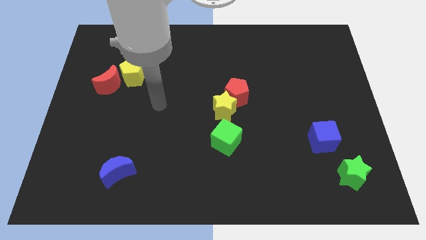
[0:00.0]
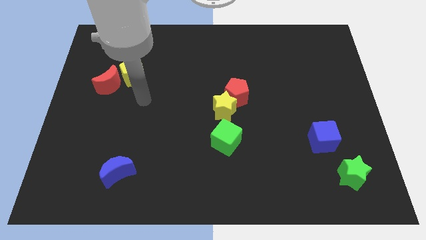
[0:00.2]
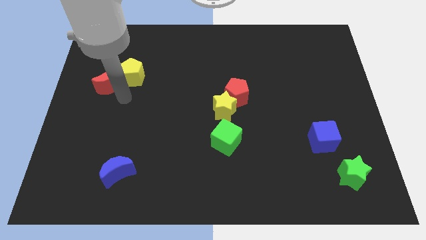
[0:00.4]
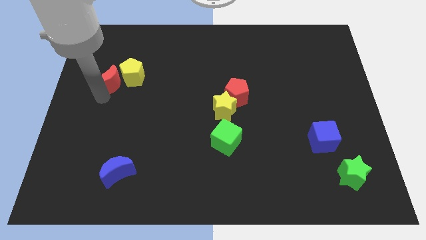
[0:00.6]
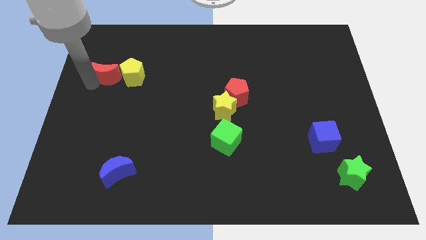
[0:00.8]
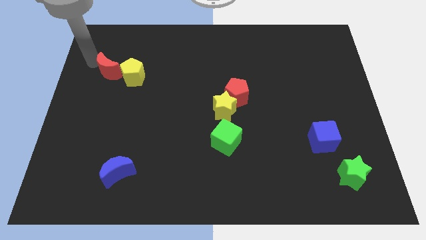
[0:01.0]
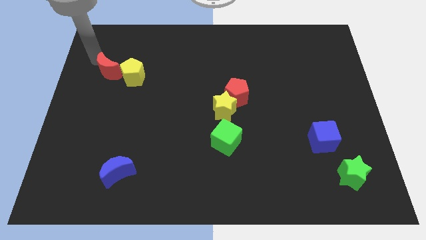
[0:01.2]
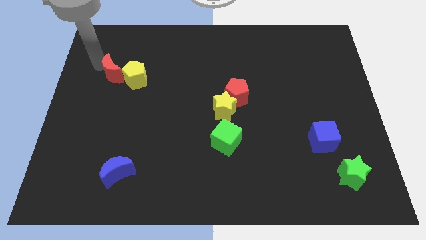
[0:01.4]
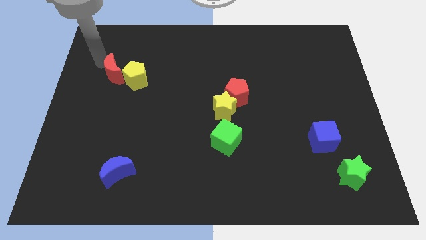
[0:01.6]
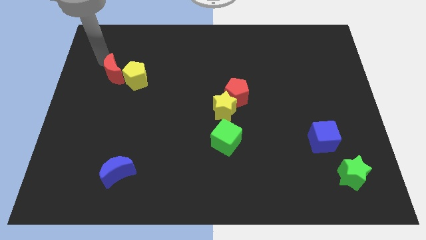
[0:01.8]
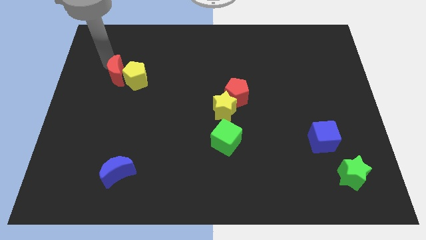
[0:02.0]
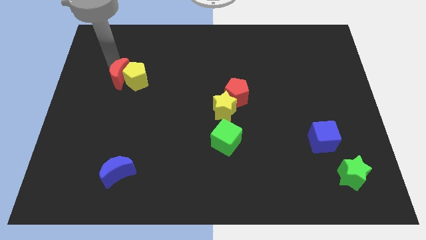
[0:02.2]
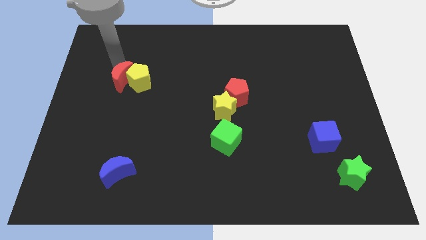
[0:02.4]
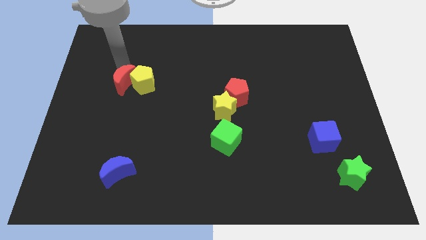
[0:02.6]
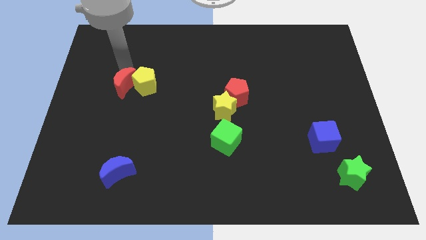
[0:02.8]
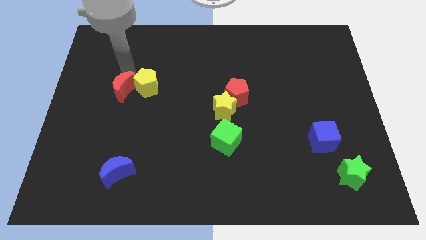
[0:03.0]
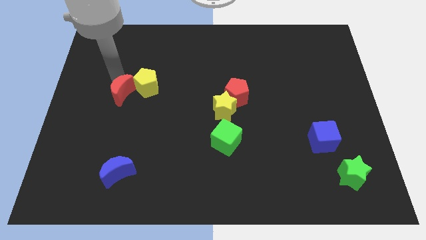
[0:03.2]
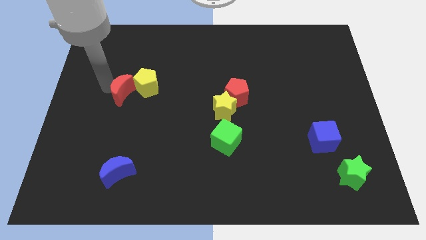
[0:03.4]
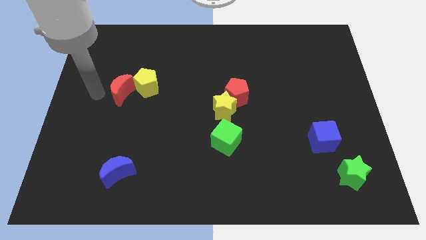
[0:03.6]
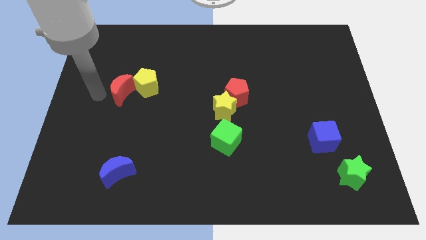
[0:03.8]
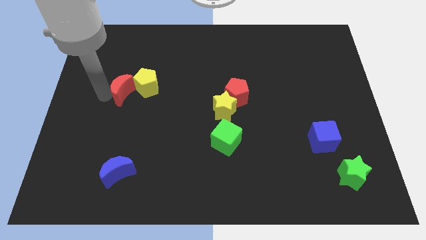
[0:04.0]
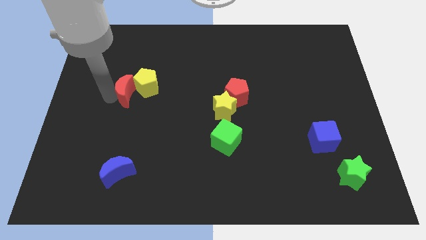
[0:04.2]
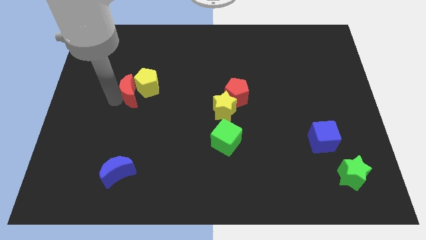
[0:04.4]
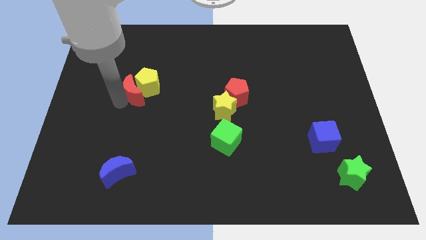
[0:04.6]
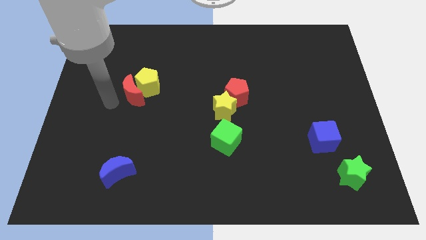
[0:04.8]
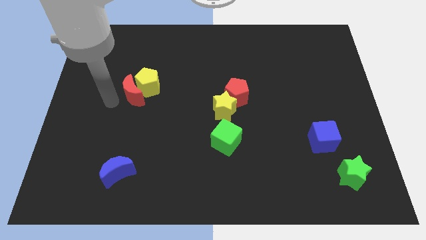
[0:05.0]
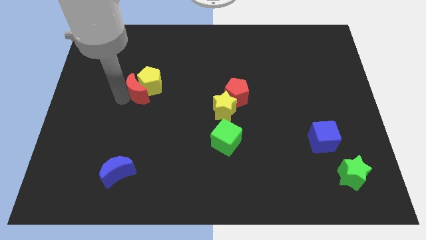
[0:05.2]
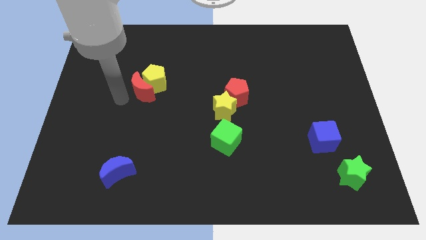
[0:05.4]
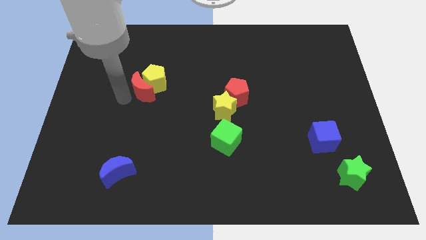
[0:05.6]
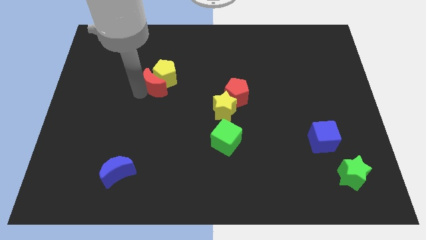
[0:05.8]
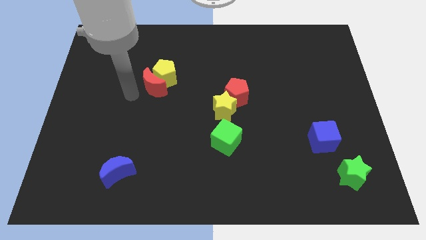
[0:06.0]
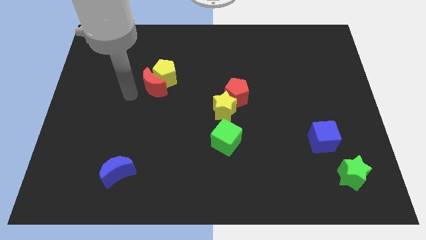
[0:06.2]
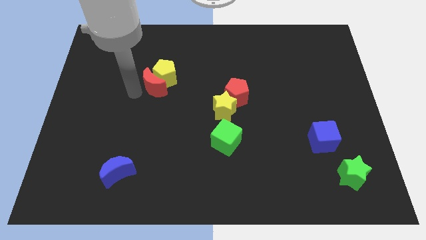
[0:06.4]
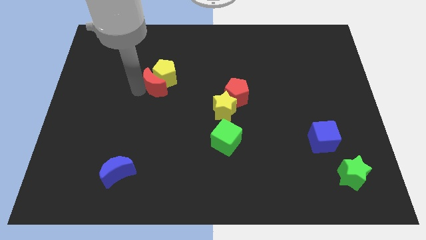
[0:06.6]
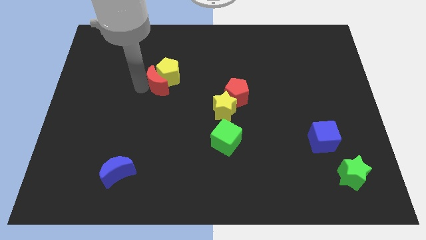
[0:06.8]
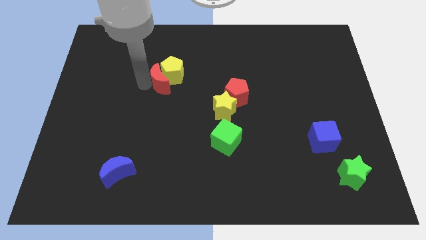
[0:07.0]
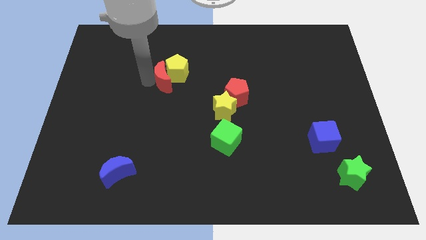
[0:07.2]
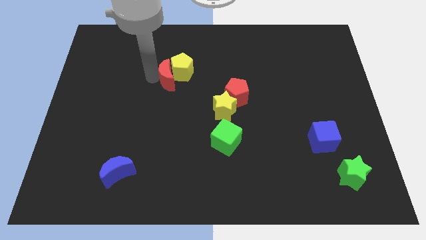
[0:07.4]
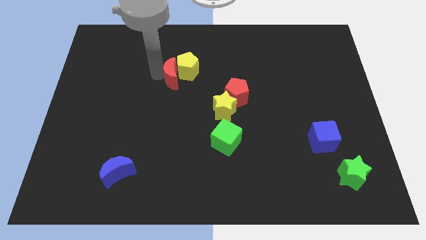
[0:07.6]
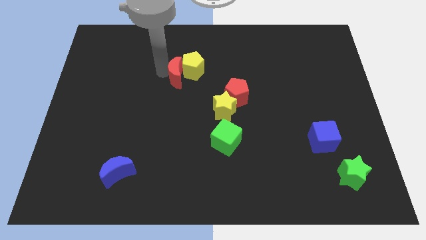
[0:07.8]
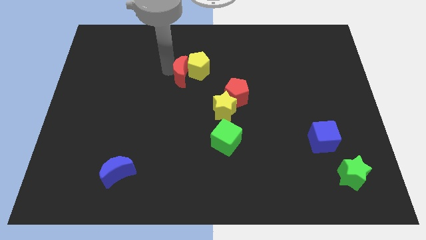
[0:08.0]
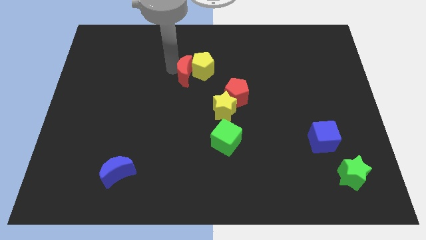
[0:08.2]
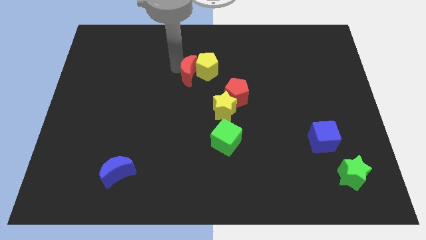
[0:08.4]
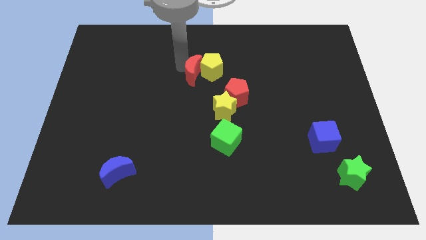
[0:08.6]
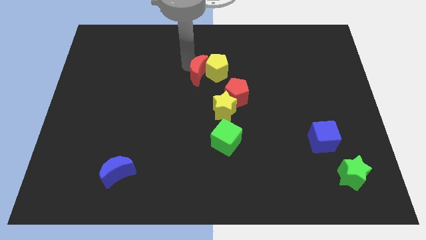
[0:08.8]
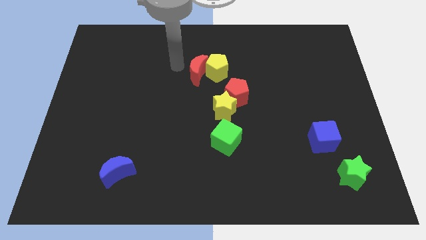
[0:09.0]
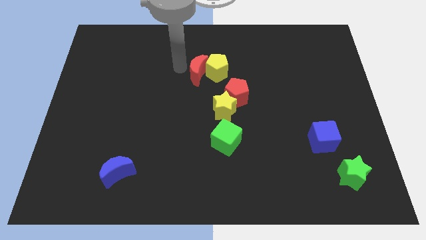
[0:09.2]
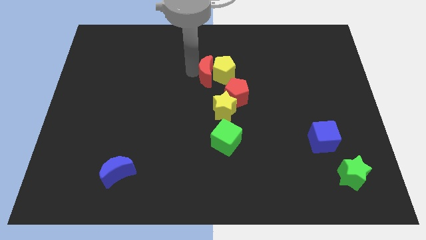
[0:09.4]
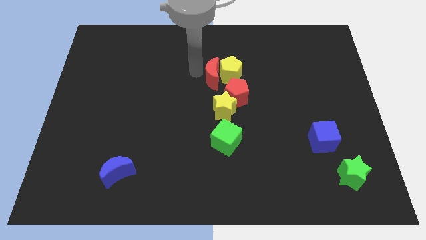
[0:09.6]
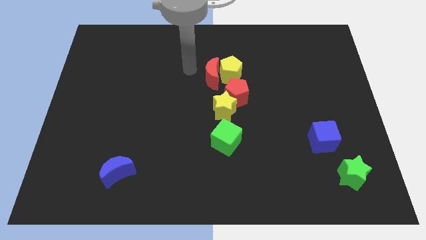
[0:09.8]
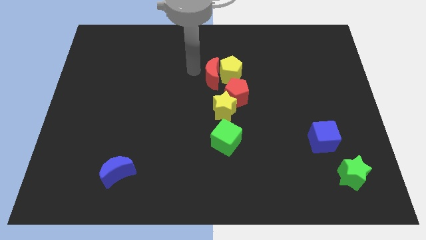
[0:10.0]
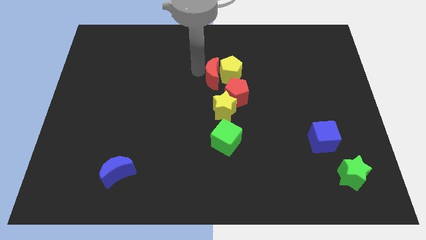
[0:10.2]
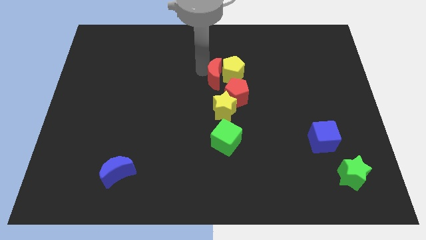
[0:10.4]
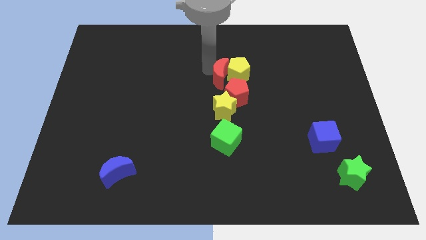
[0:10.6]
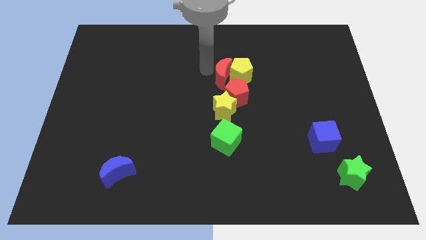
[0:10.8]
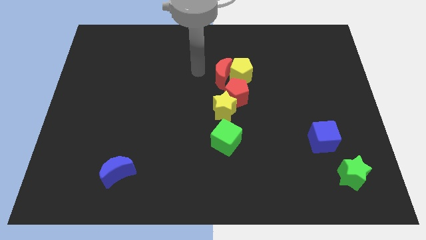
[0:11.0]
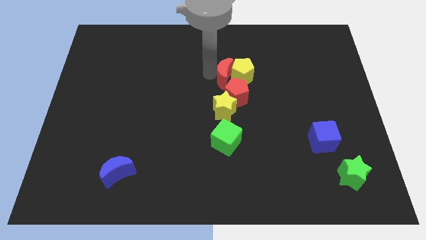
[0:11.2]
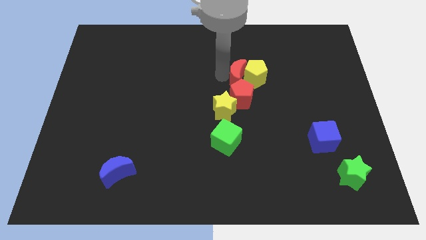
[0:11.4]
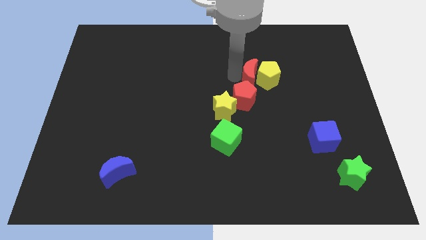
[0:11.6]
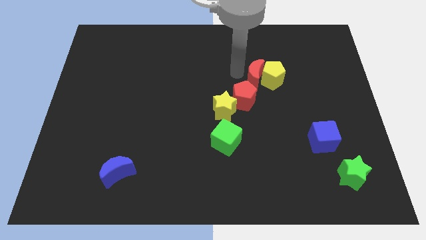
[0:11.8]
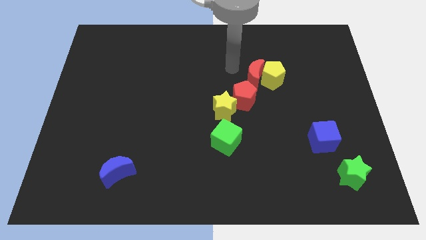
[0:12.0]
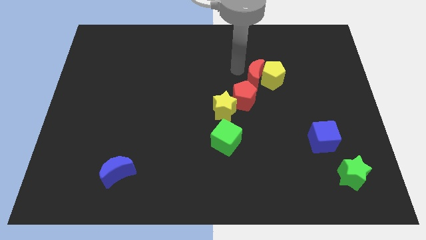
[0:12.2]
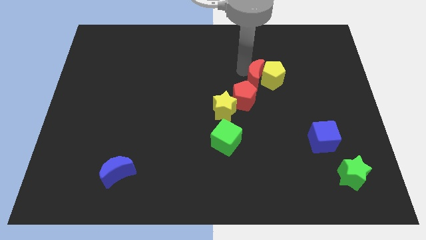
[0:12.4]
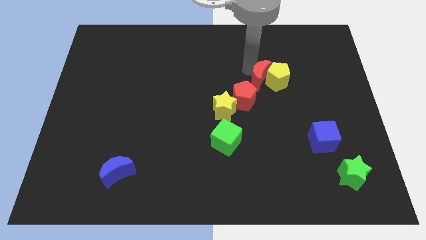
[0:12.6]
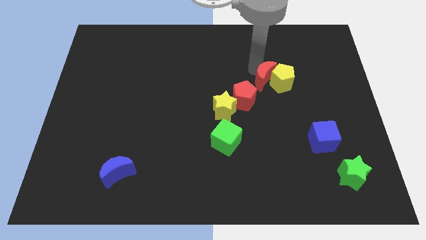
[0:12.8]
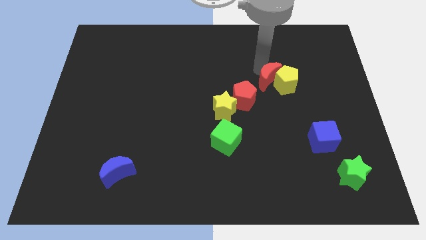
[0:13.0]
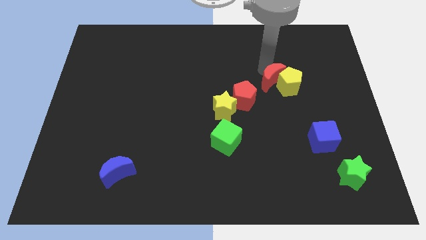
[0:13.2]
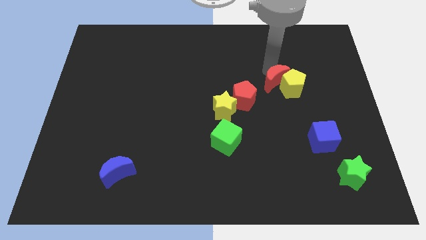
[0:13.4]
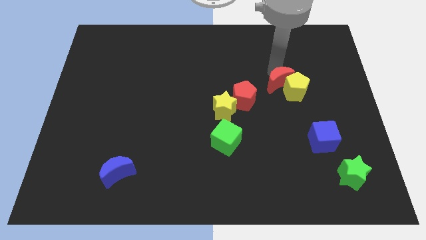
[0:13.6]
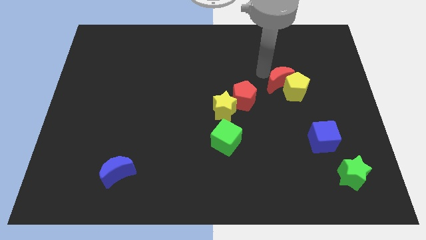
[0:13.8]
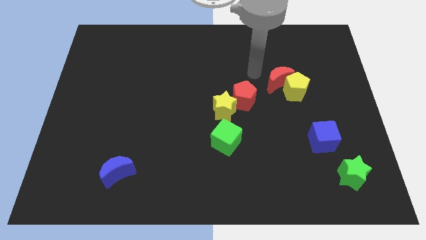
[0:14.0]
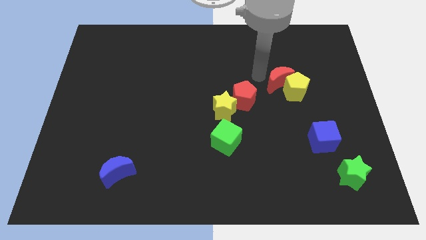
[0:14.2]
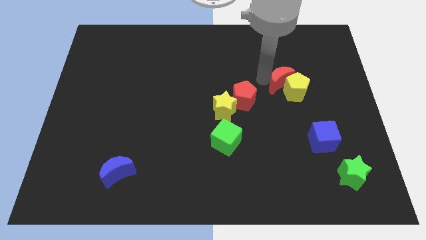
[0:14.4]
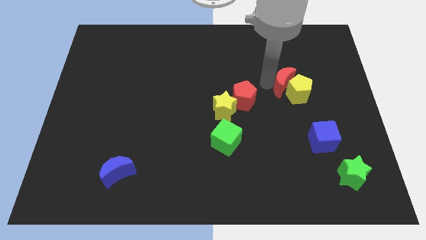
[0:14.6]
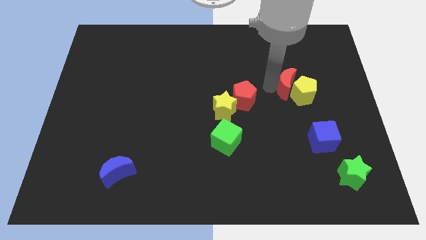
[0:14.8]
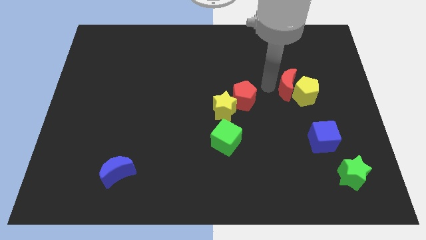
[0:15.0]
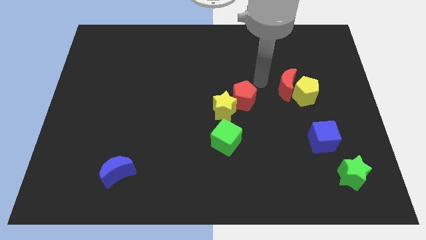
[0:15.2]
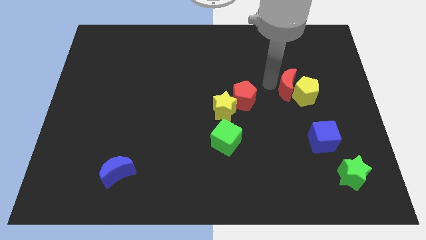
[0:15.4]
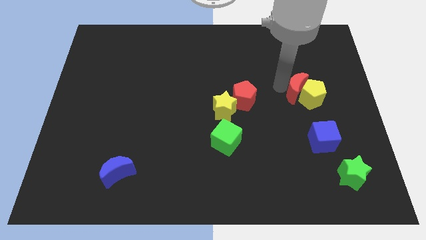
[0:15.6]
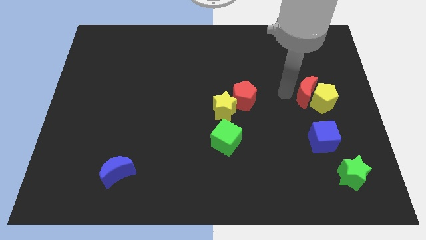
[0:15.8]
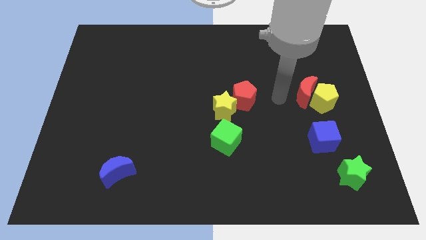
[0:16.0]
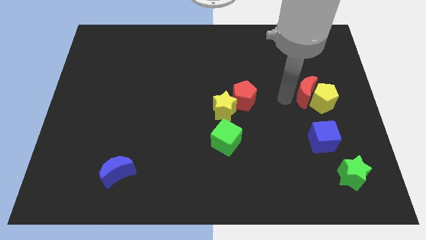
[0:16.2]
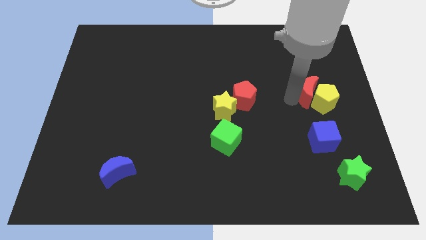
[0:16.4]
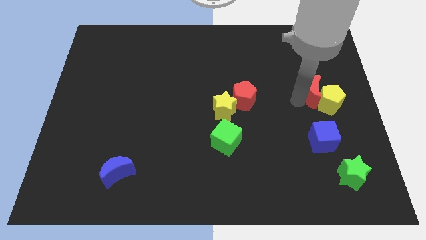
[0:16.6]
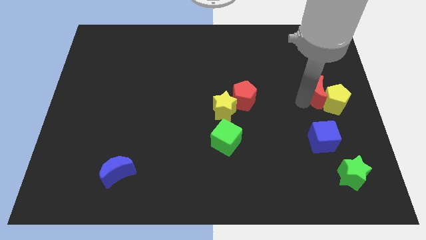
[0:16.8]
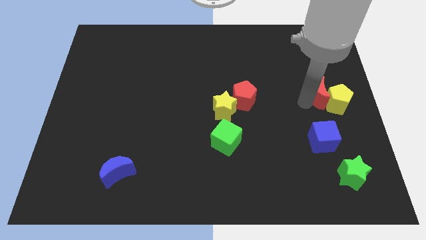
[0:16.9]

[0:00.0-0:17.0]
push the red moon to the right side of the board
